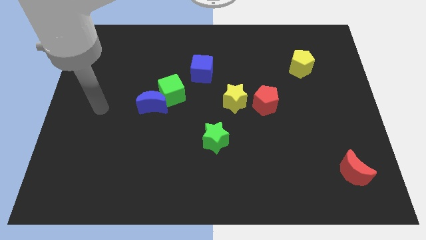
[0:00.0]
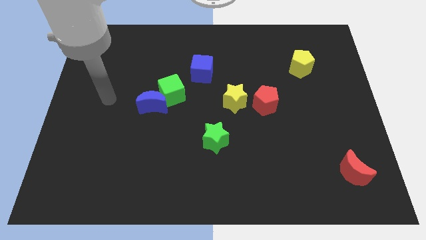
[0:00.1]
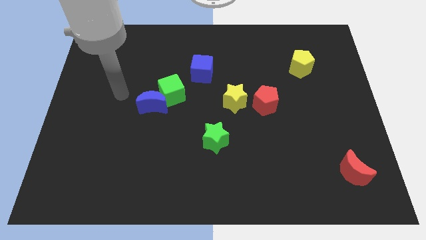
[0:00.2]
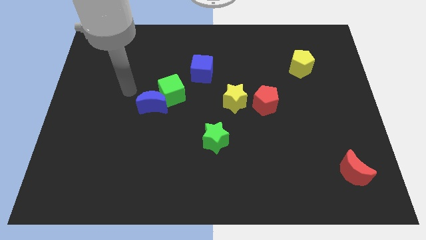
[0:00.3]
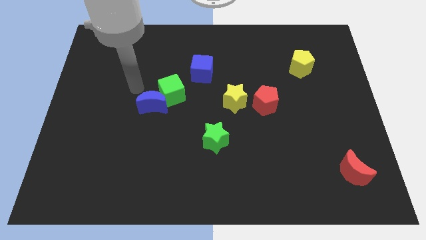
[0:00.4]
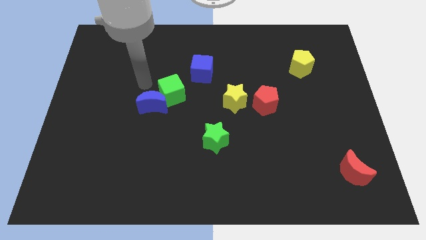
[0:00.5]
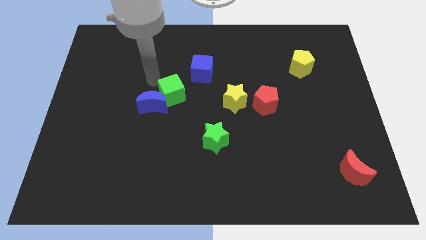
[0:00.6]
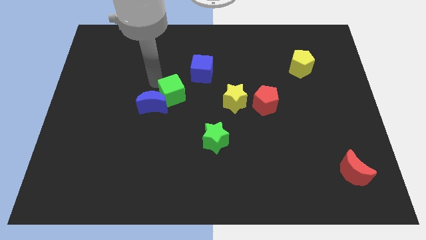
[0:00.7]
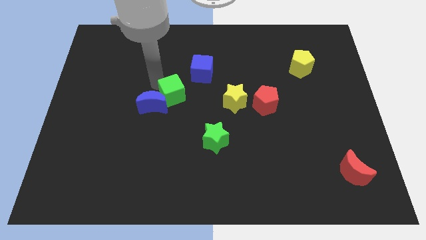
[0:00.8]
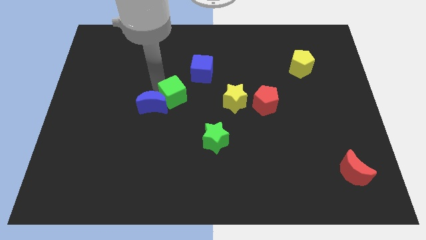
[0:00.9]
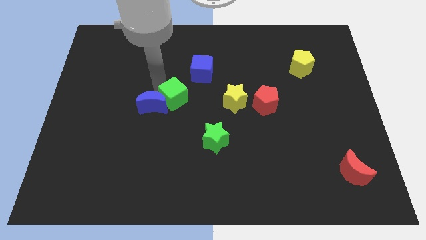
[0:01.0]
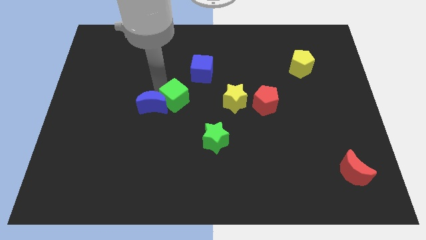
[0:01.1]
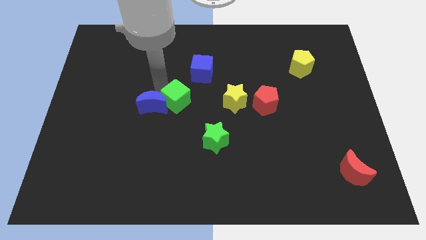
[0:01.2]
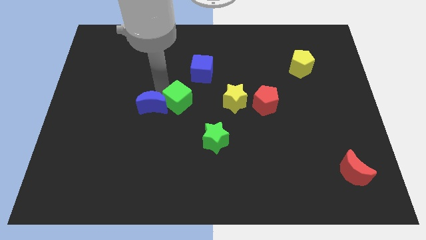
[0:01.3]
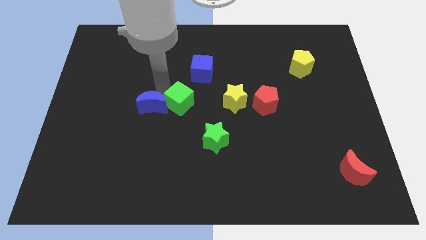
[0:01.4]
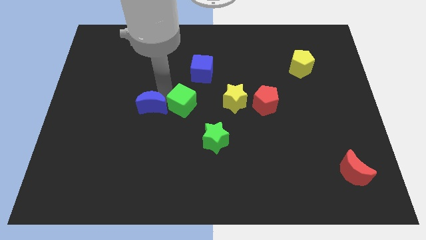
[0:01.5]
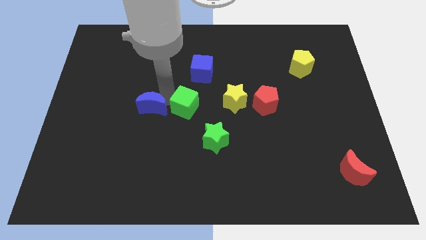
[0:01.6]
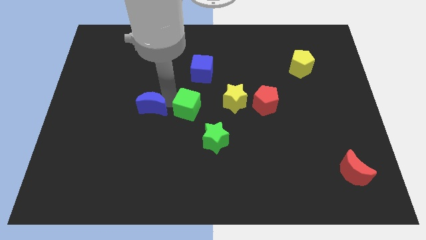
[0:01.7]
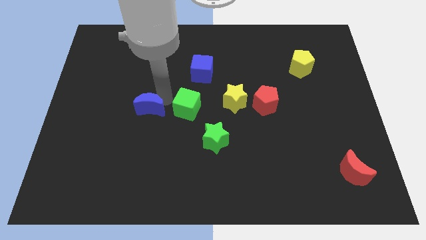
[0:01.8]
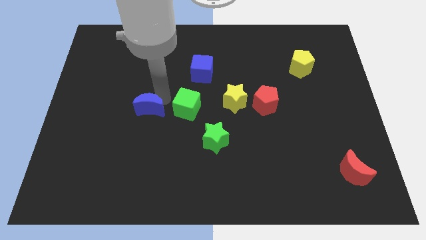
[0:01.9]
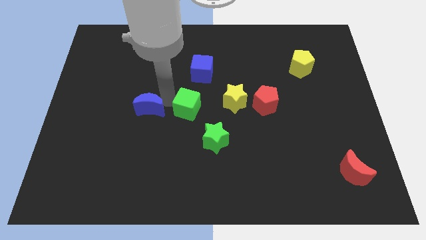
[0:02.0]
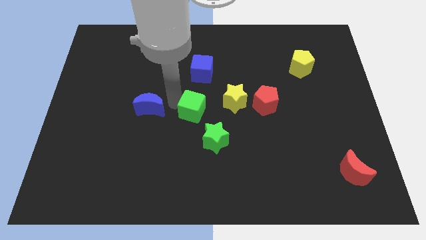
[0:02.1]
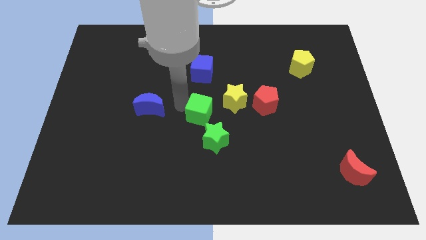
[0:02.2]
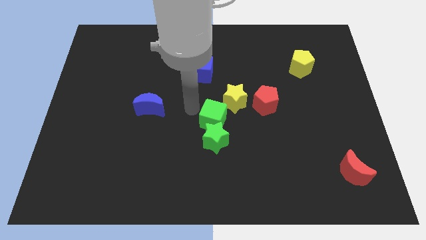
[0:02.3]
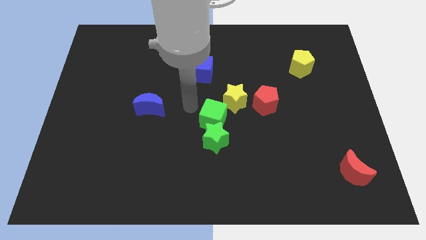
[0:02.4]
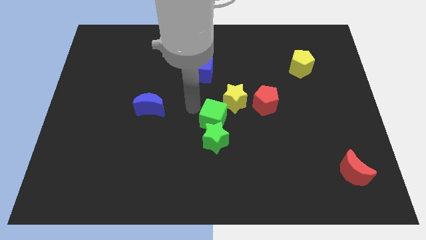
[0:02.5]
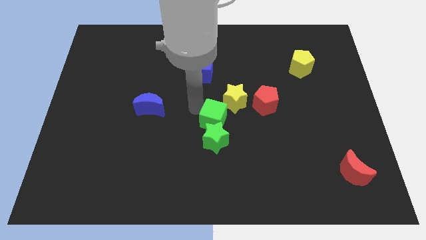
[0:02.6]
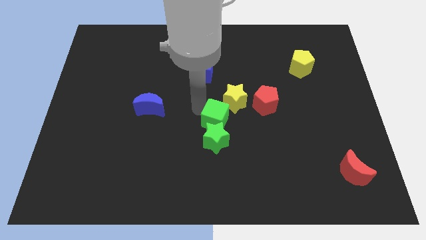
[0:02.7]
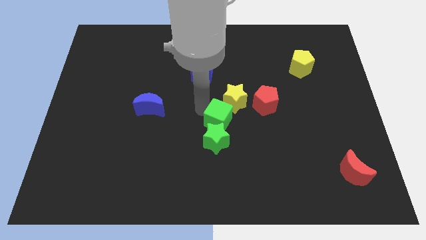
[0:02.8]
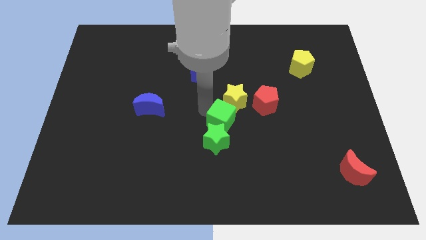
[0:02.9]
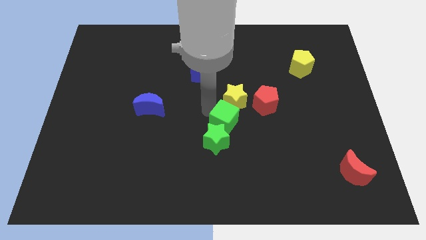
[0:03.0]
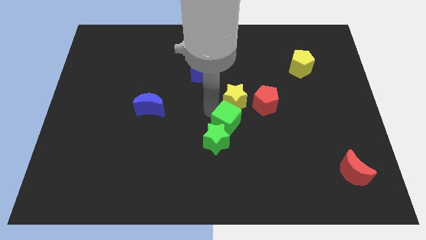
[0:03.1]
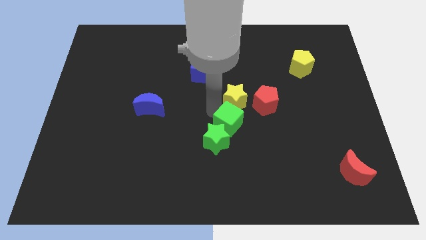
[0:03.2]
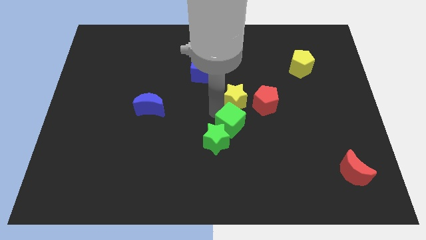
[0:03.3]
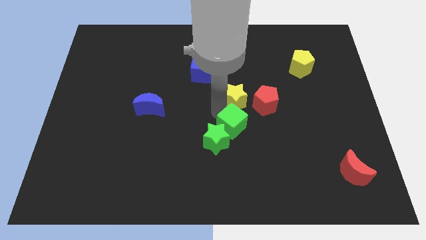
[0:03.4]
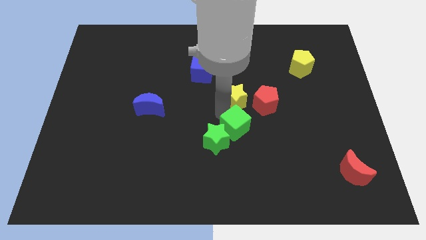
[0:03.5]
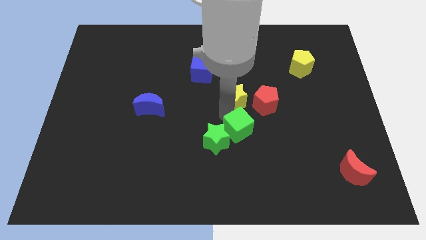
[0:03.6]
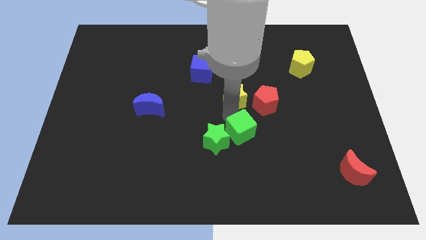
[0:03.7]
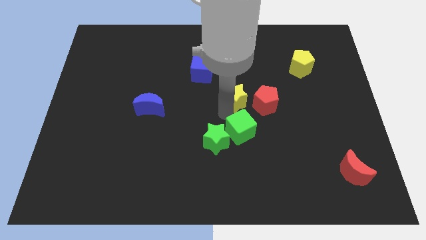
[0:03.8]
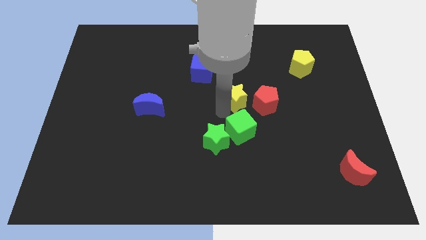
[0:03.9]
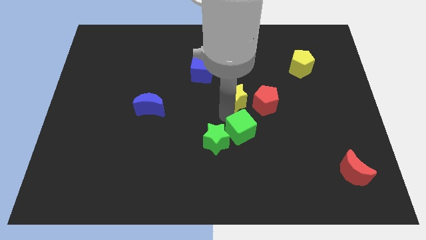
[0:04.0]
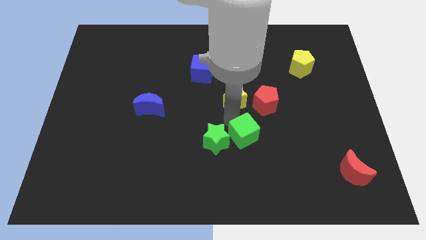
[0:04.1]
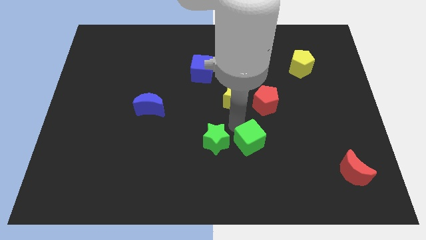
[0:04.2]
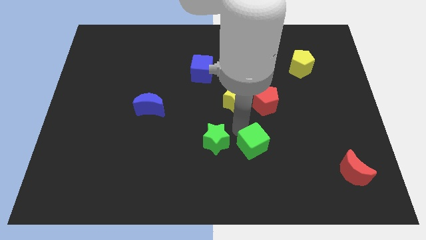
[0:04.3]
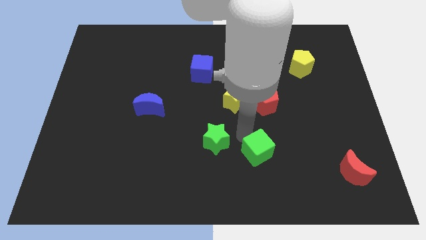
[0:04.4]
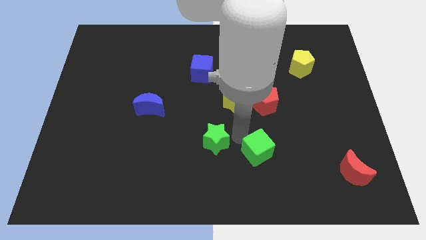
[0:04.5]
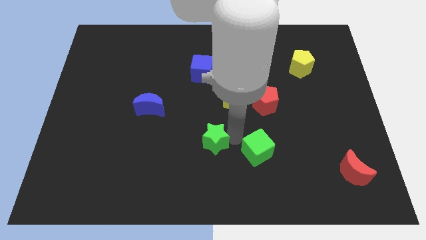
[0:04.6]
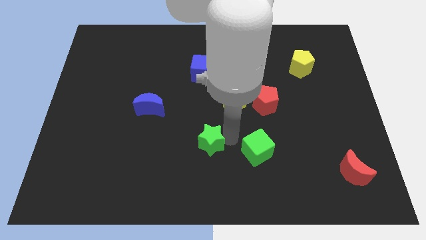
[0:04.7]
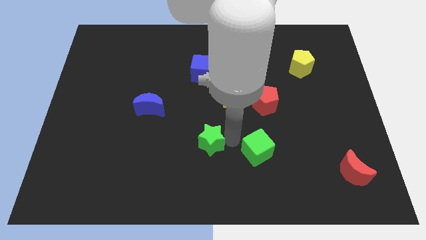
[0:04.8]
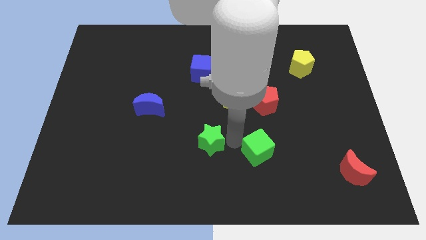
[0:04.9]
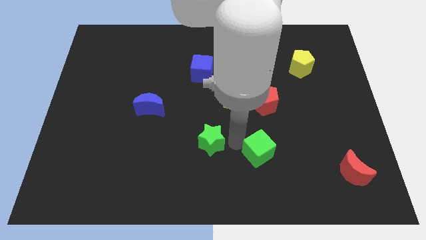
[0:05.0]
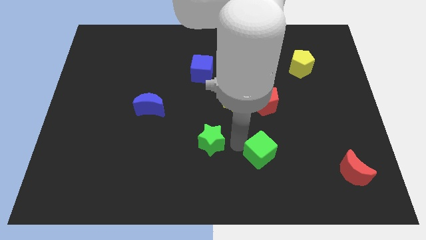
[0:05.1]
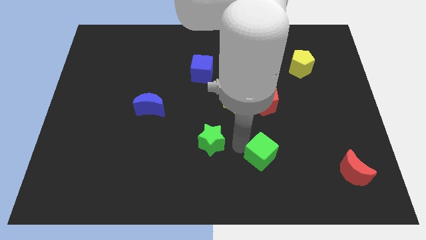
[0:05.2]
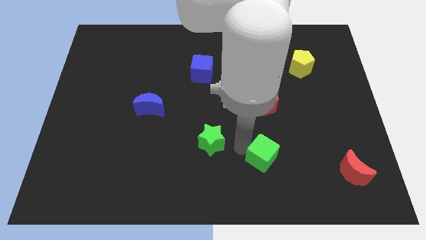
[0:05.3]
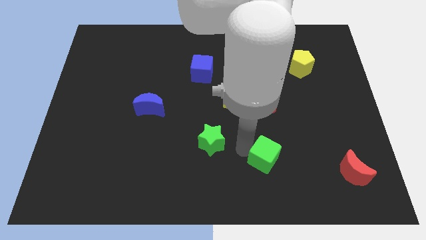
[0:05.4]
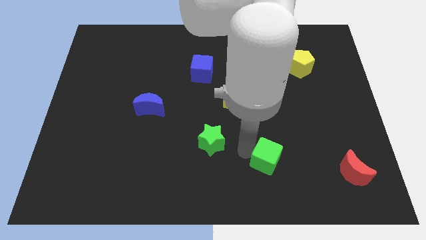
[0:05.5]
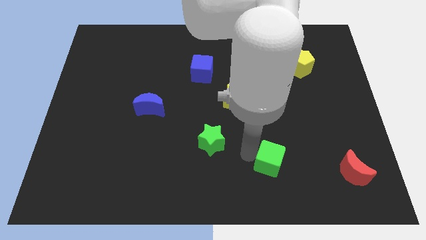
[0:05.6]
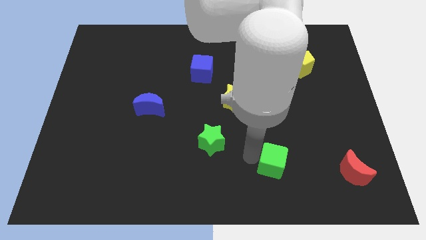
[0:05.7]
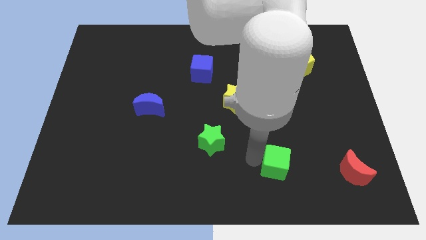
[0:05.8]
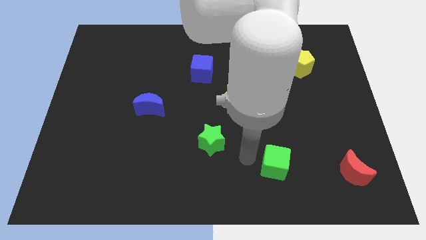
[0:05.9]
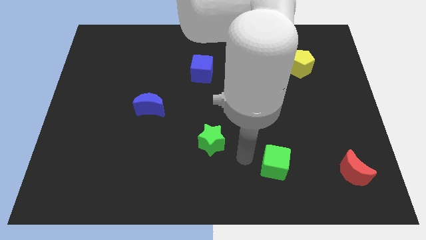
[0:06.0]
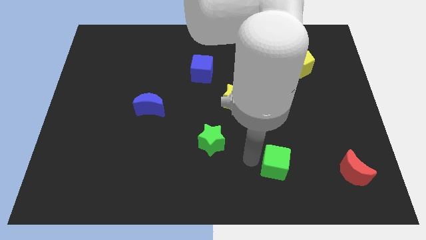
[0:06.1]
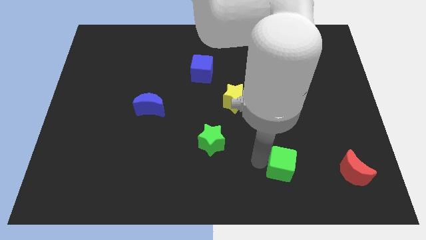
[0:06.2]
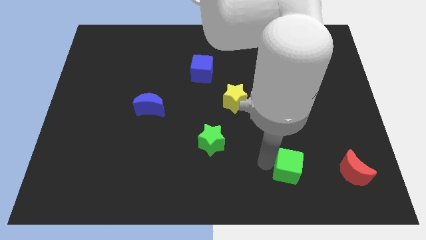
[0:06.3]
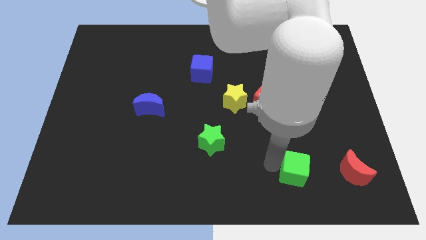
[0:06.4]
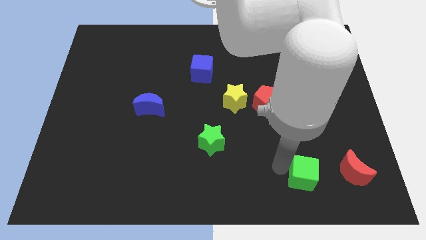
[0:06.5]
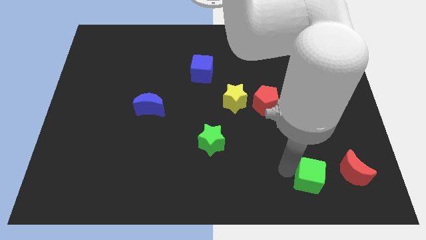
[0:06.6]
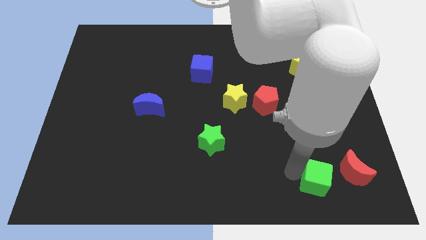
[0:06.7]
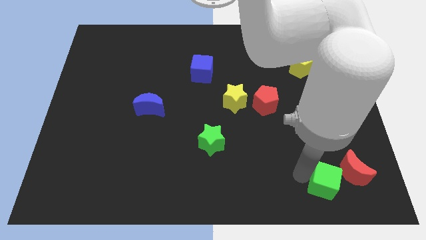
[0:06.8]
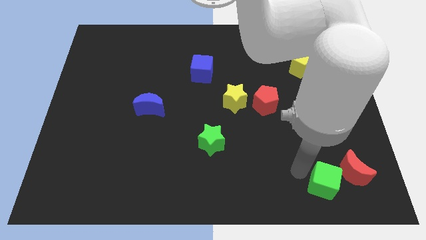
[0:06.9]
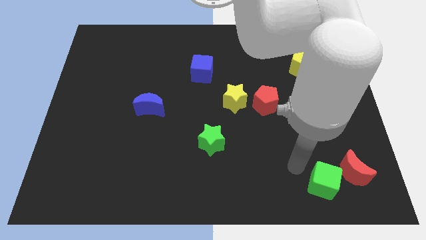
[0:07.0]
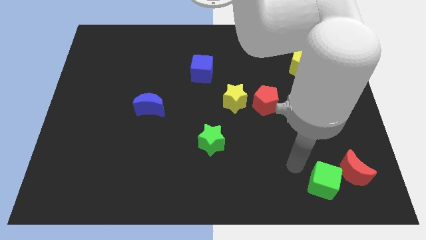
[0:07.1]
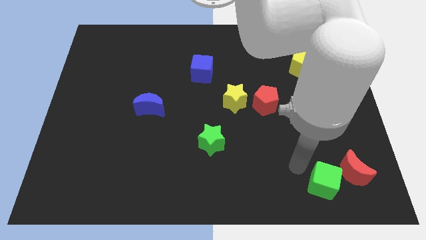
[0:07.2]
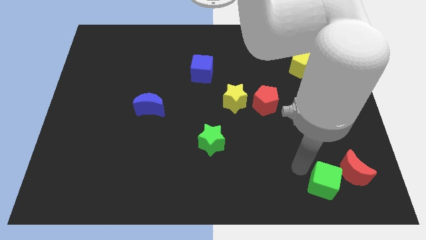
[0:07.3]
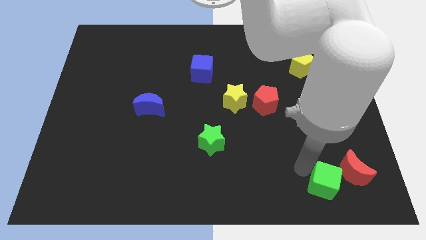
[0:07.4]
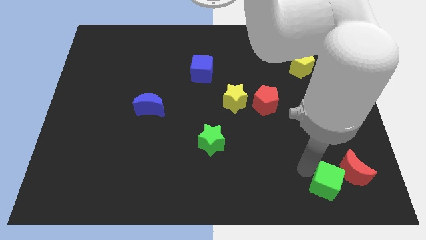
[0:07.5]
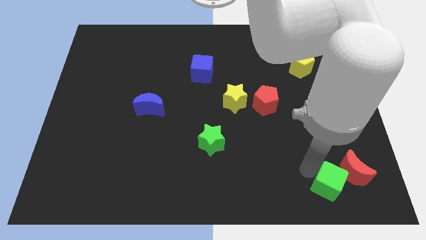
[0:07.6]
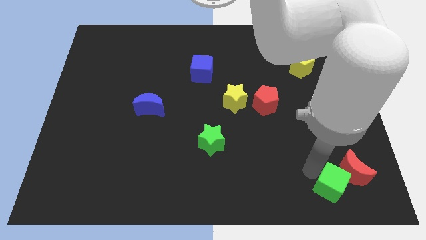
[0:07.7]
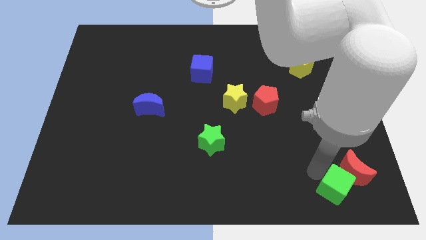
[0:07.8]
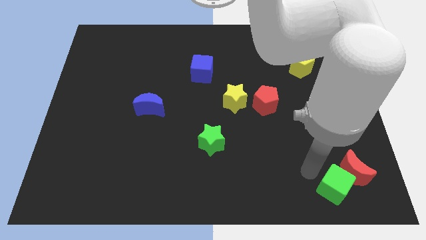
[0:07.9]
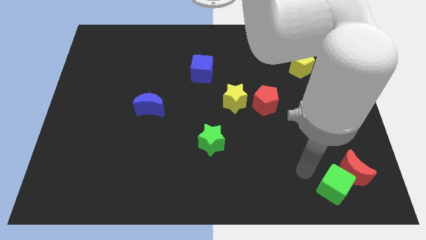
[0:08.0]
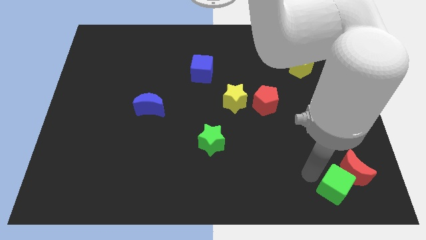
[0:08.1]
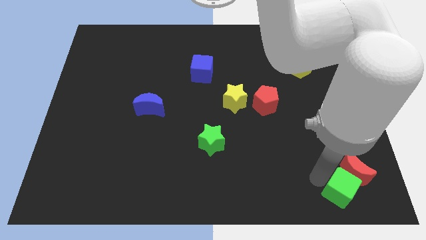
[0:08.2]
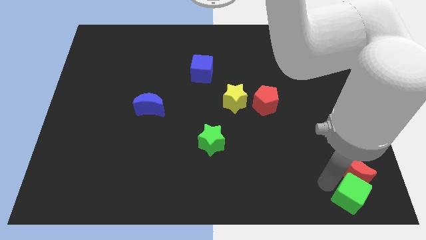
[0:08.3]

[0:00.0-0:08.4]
put the green cube to the bottom right
